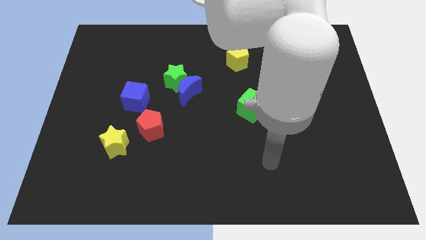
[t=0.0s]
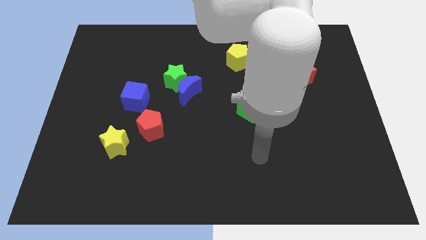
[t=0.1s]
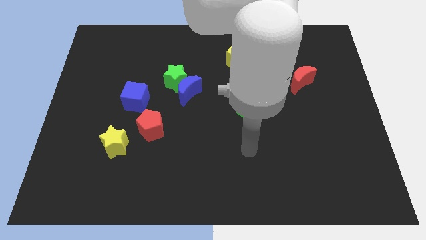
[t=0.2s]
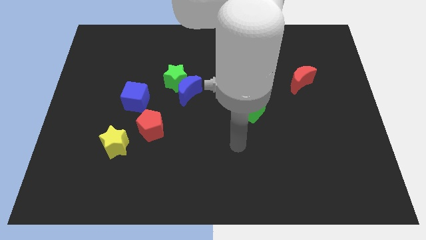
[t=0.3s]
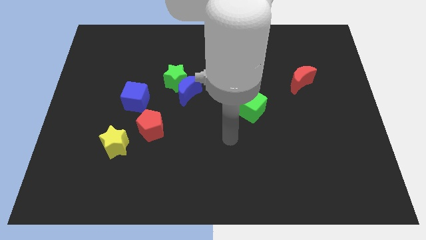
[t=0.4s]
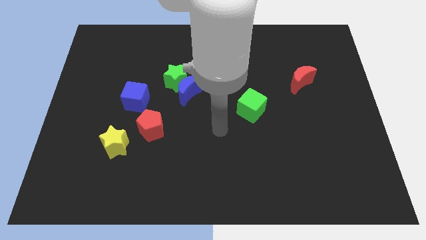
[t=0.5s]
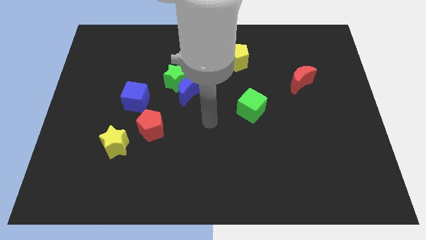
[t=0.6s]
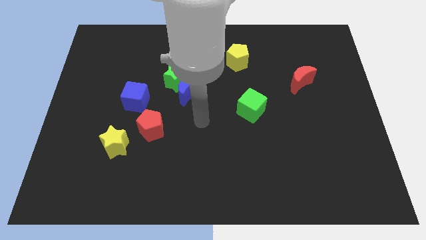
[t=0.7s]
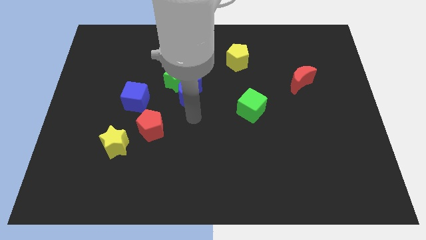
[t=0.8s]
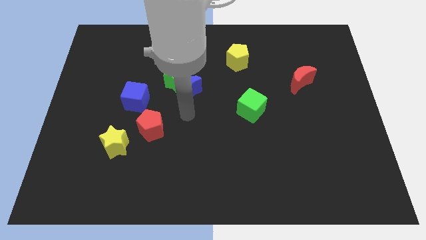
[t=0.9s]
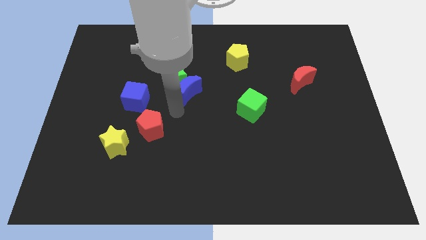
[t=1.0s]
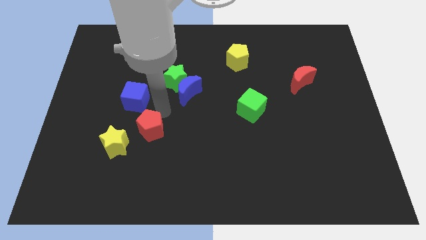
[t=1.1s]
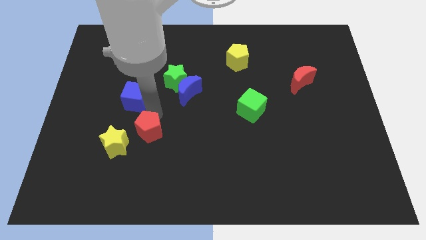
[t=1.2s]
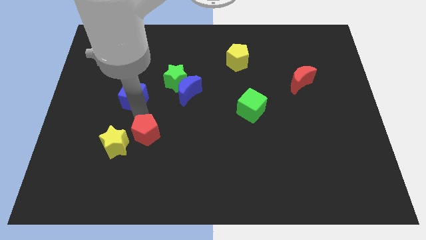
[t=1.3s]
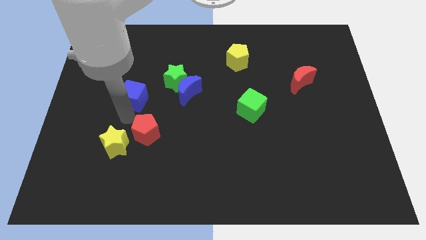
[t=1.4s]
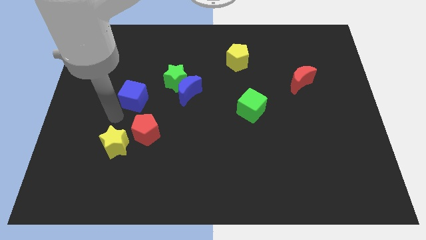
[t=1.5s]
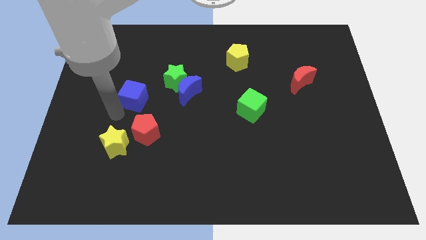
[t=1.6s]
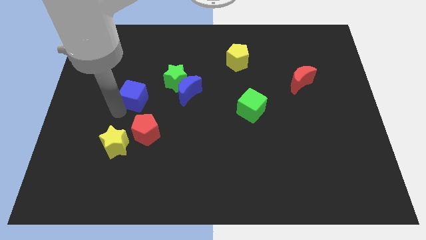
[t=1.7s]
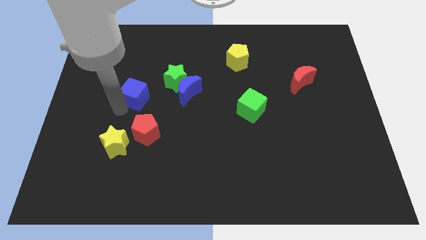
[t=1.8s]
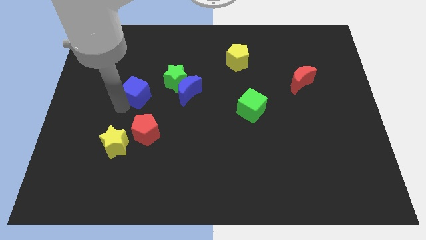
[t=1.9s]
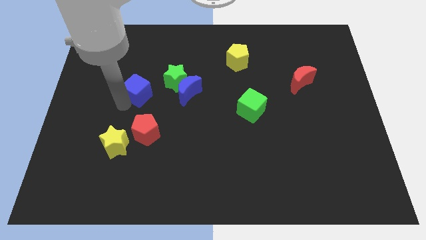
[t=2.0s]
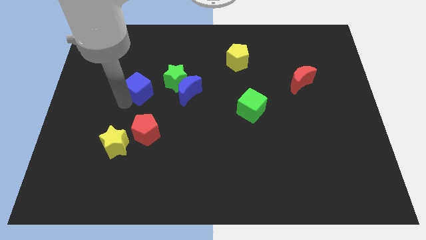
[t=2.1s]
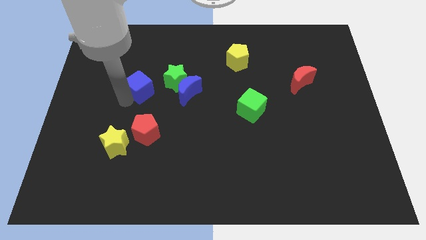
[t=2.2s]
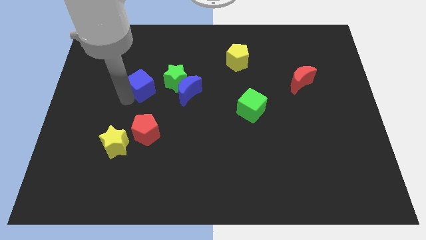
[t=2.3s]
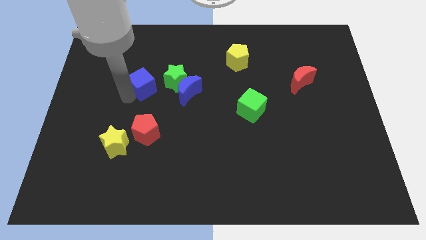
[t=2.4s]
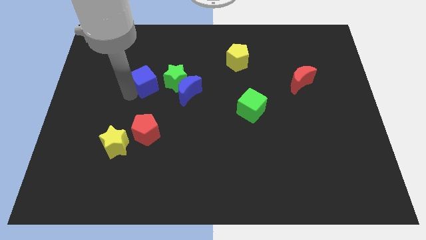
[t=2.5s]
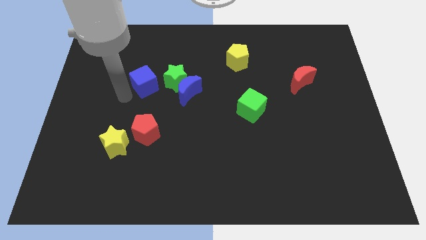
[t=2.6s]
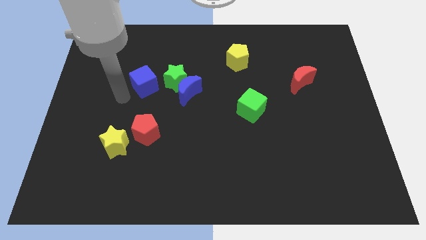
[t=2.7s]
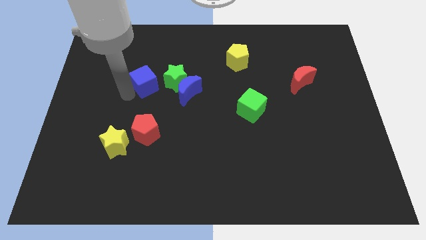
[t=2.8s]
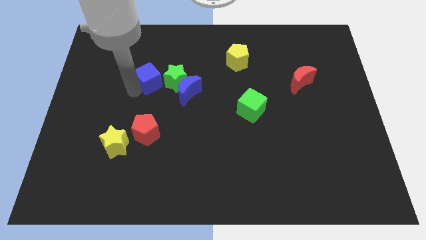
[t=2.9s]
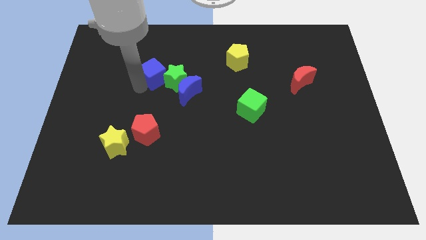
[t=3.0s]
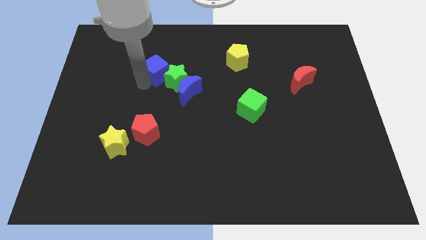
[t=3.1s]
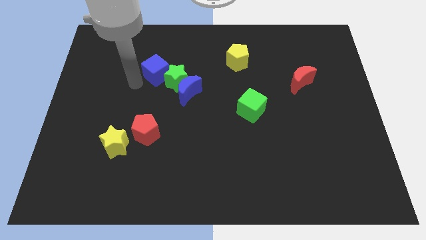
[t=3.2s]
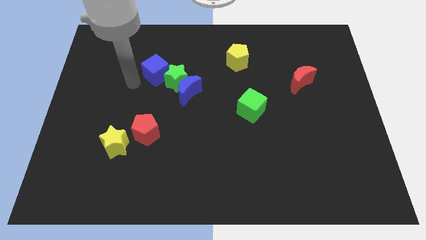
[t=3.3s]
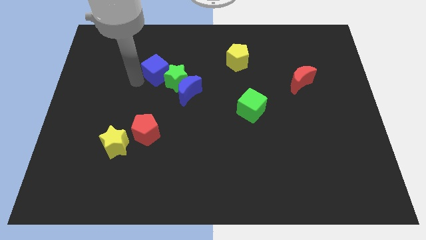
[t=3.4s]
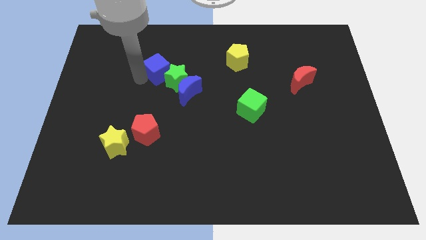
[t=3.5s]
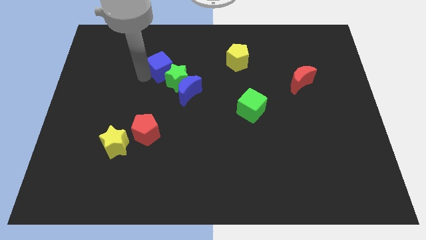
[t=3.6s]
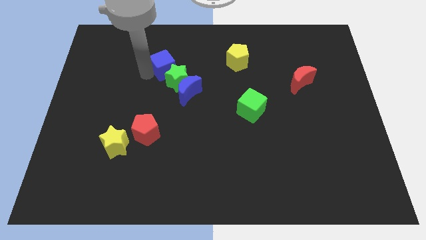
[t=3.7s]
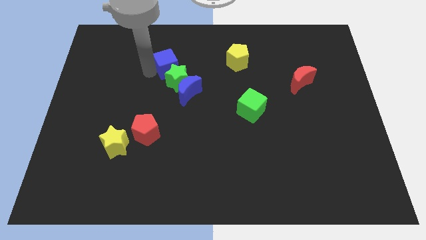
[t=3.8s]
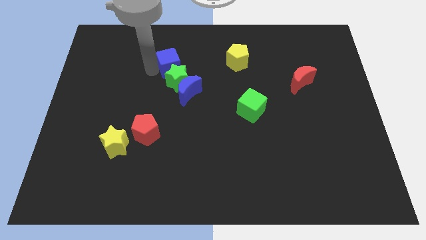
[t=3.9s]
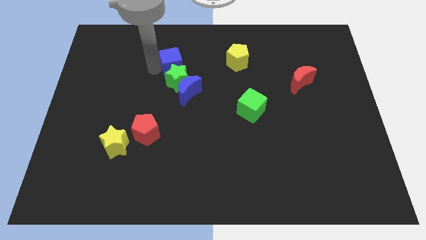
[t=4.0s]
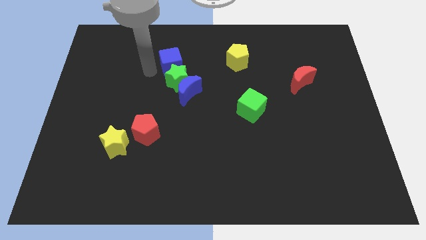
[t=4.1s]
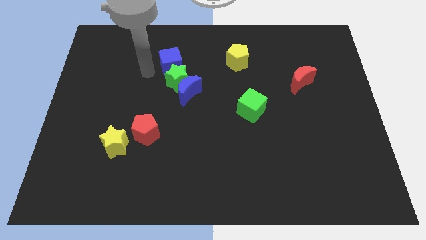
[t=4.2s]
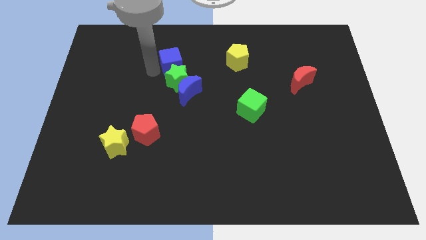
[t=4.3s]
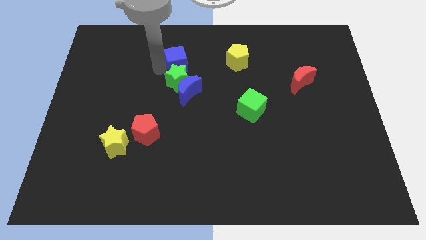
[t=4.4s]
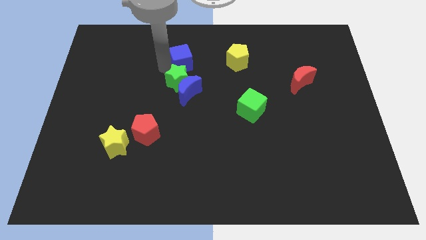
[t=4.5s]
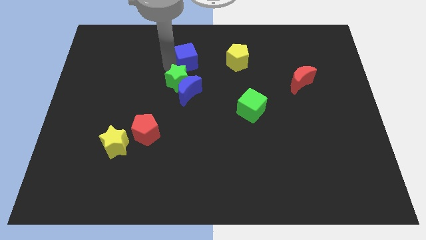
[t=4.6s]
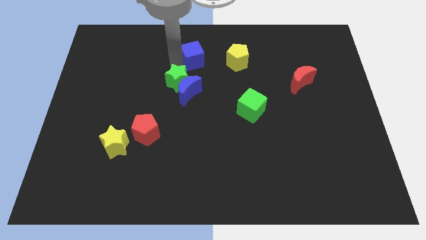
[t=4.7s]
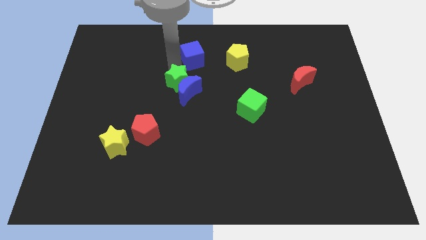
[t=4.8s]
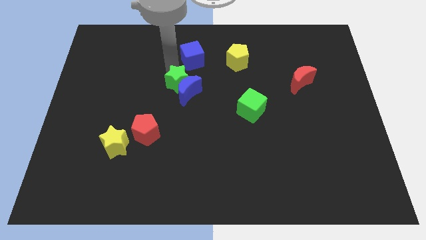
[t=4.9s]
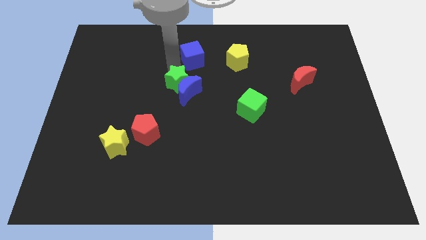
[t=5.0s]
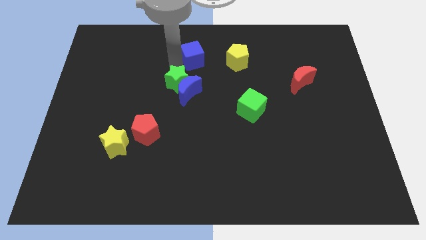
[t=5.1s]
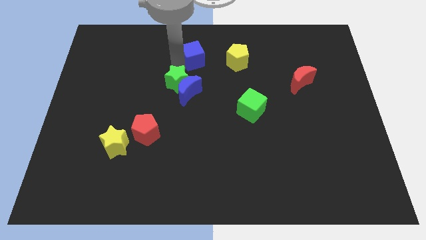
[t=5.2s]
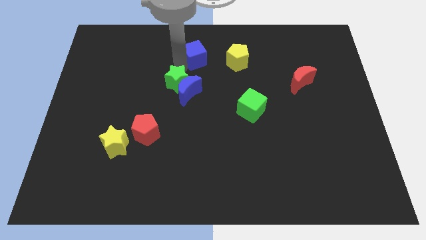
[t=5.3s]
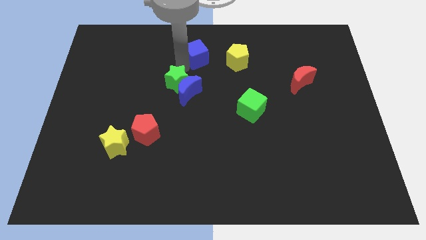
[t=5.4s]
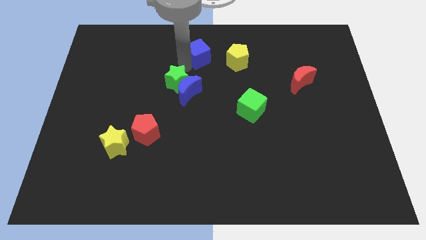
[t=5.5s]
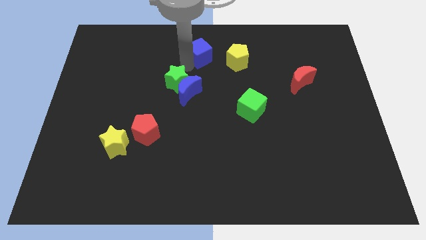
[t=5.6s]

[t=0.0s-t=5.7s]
move the blue cube to the towards your base

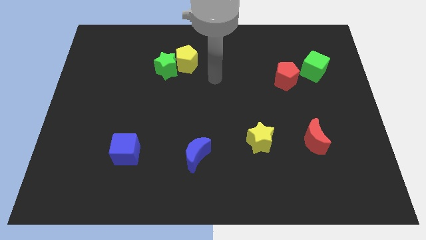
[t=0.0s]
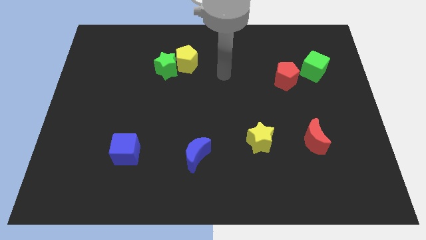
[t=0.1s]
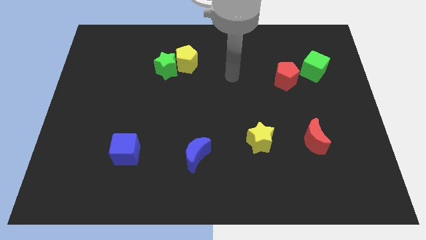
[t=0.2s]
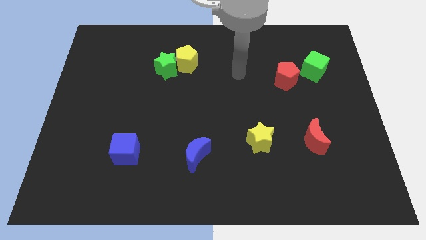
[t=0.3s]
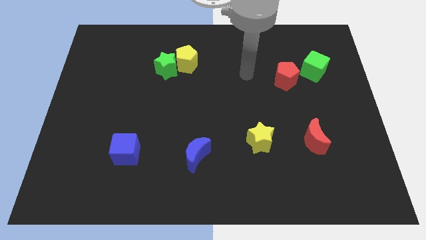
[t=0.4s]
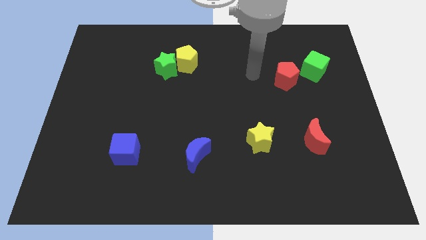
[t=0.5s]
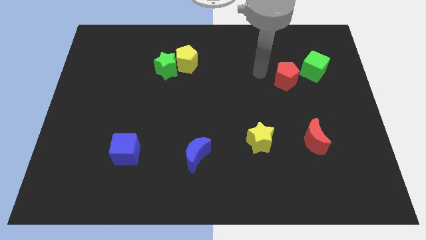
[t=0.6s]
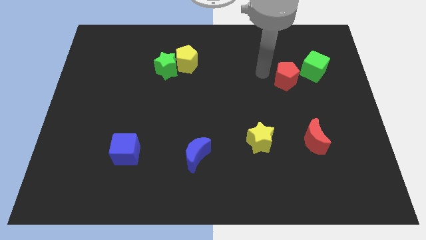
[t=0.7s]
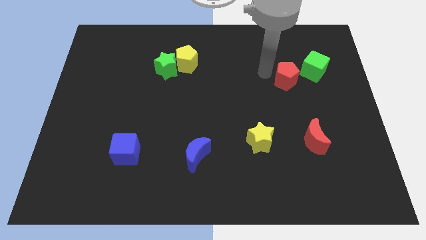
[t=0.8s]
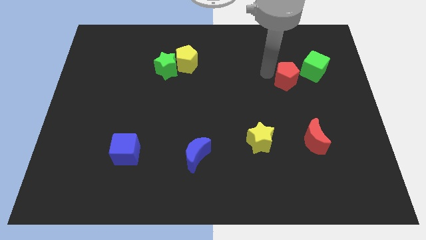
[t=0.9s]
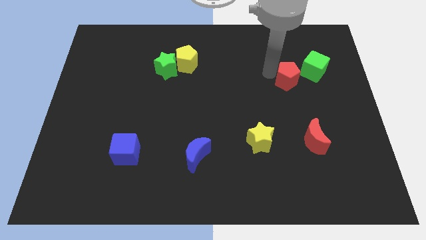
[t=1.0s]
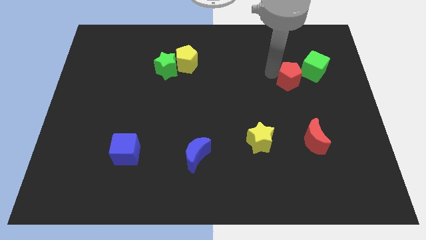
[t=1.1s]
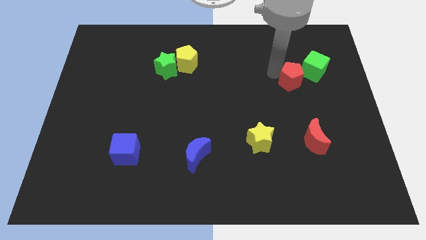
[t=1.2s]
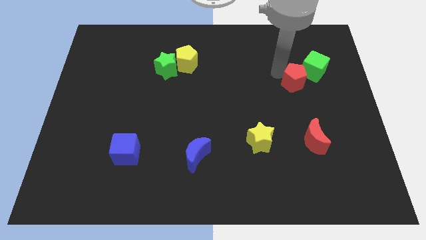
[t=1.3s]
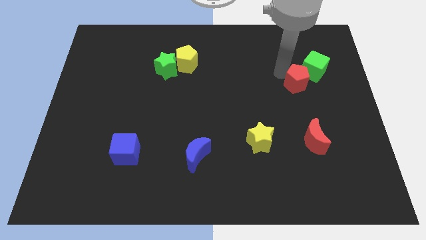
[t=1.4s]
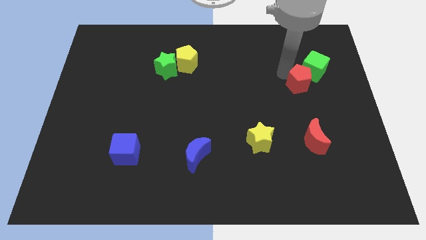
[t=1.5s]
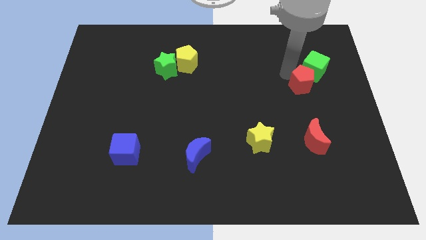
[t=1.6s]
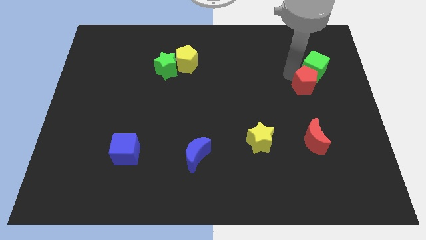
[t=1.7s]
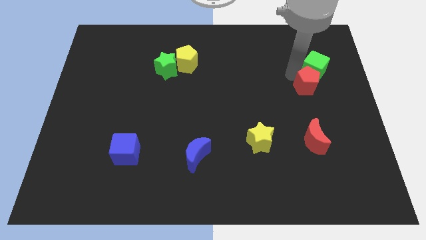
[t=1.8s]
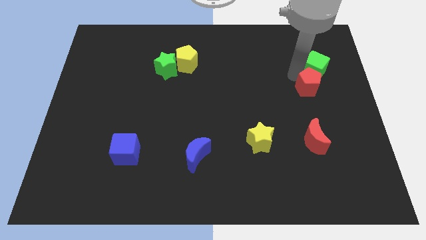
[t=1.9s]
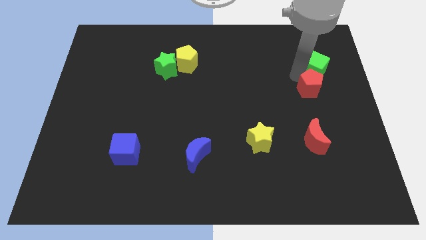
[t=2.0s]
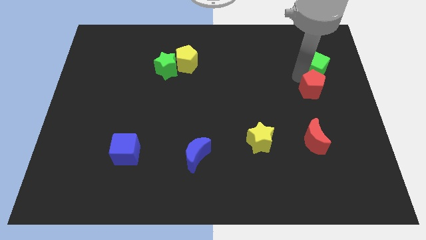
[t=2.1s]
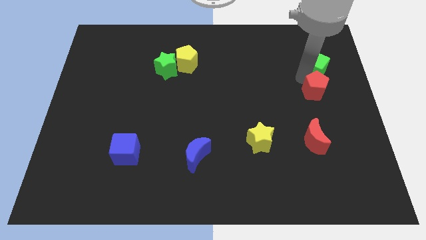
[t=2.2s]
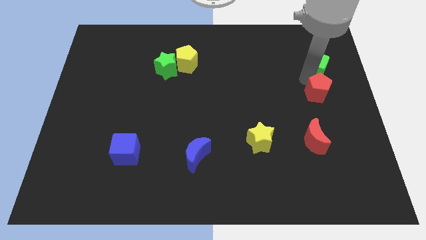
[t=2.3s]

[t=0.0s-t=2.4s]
put the red pentagon to the center right
